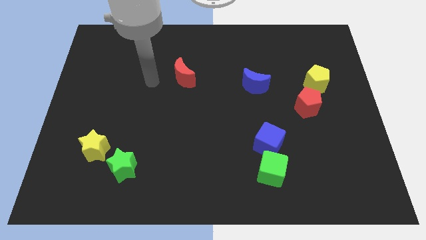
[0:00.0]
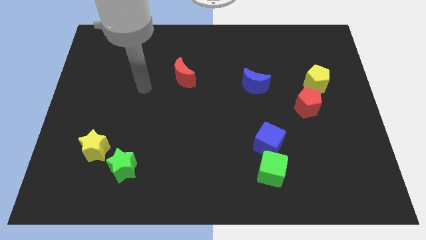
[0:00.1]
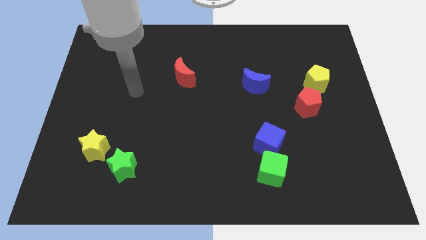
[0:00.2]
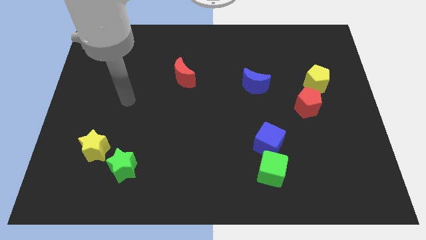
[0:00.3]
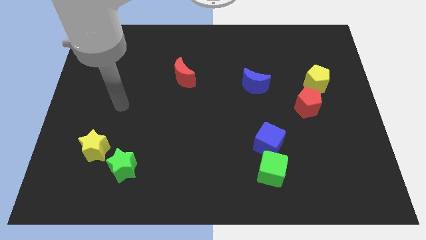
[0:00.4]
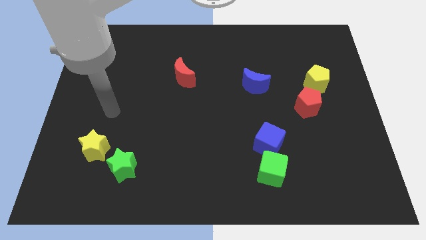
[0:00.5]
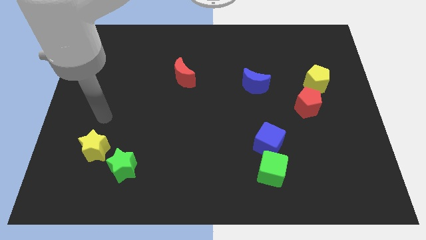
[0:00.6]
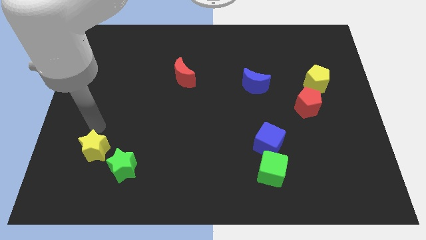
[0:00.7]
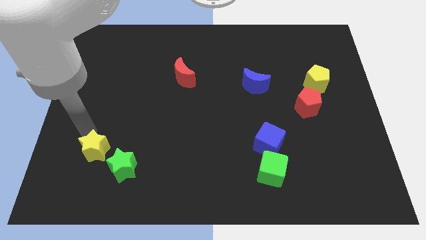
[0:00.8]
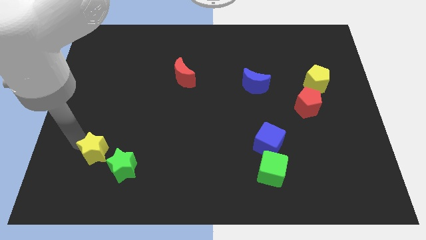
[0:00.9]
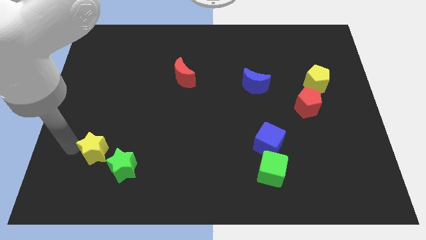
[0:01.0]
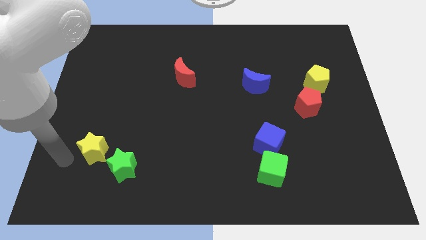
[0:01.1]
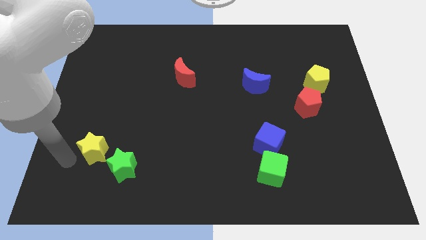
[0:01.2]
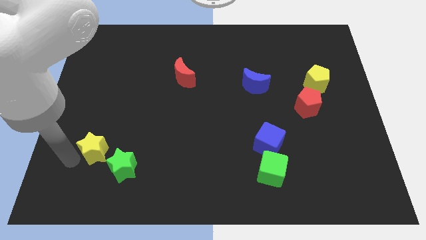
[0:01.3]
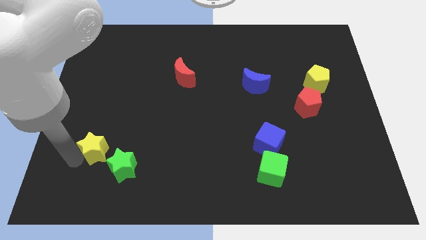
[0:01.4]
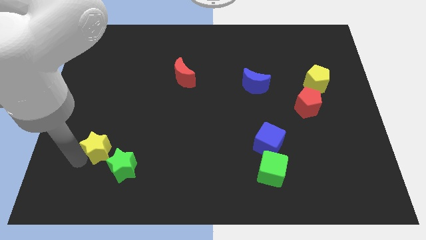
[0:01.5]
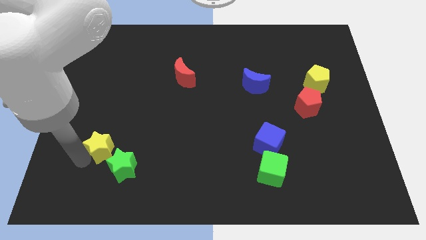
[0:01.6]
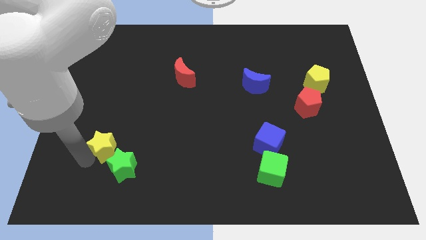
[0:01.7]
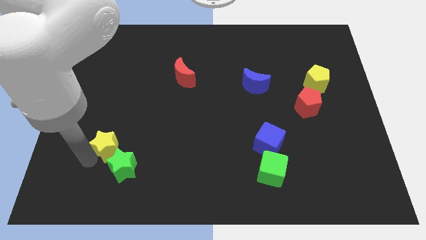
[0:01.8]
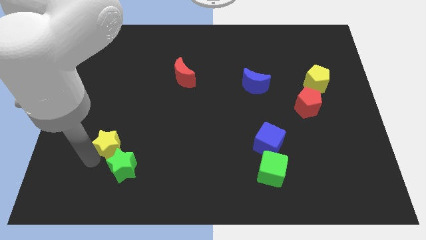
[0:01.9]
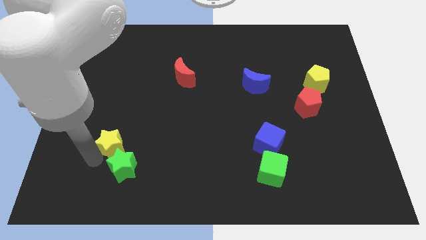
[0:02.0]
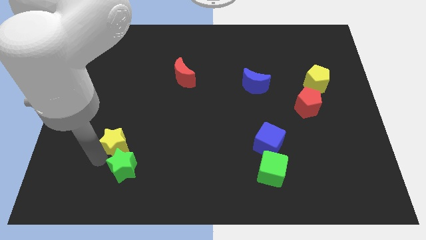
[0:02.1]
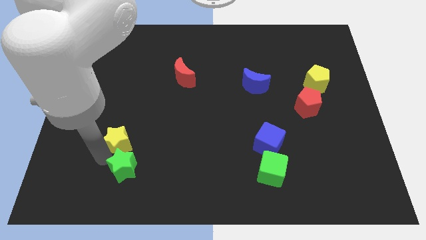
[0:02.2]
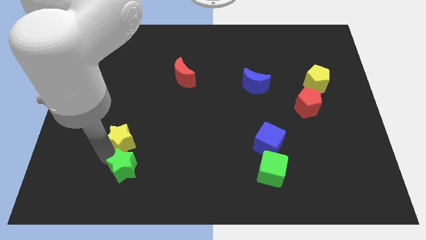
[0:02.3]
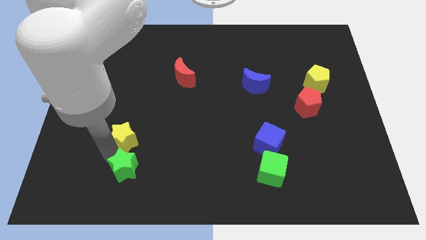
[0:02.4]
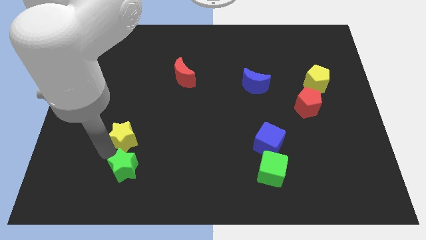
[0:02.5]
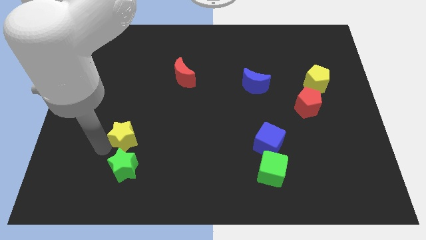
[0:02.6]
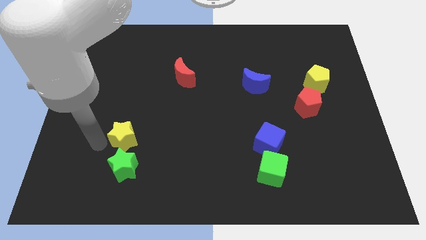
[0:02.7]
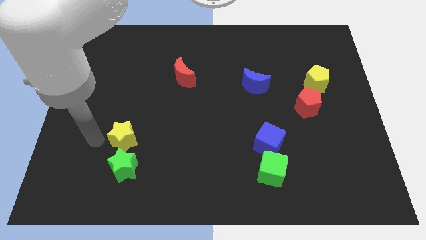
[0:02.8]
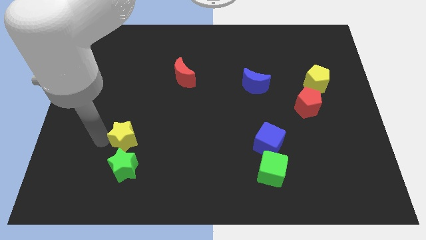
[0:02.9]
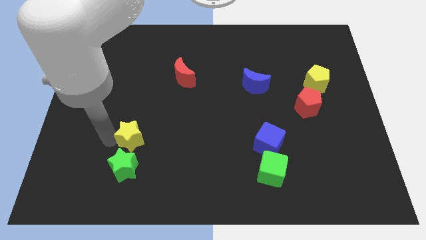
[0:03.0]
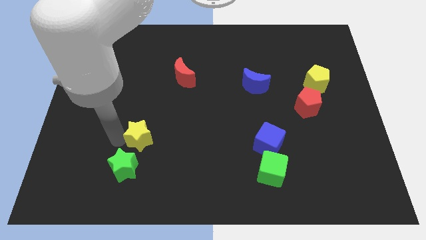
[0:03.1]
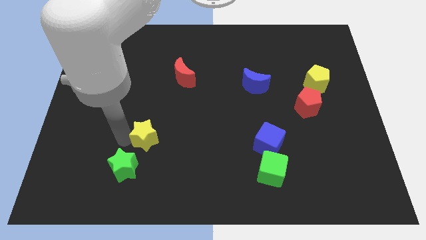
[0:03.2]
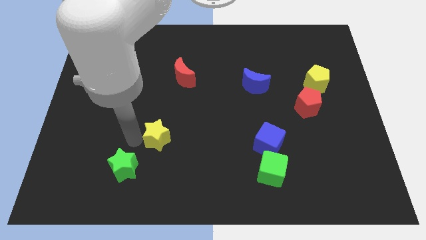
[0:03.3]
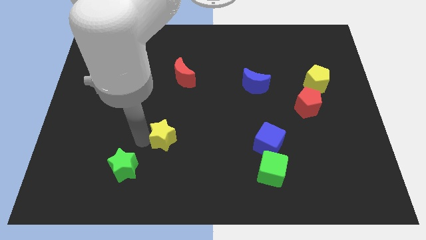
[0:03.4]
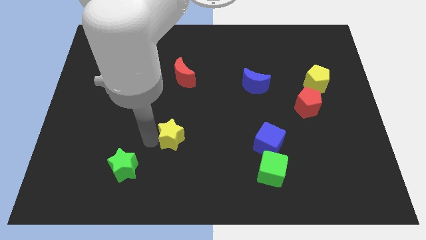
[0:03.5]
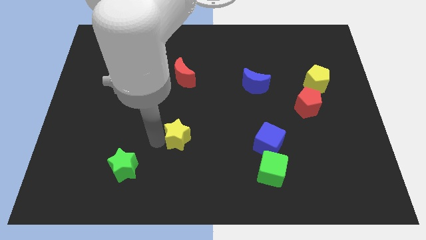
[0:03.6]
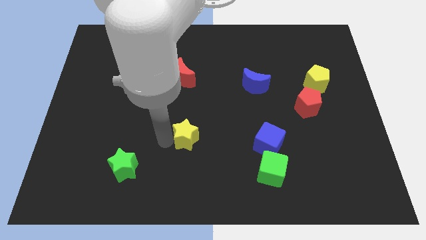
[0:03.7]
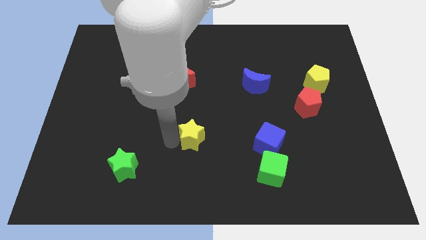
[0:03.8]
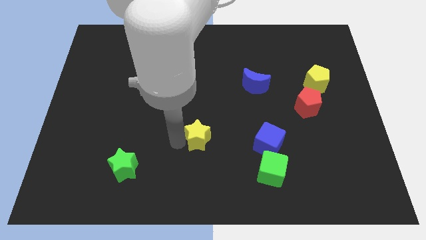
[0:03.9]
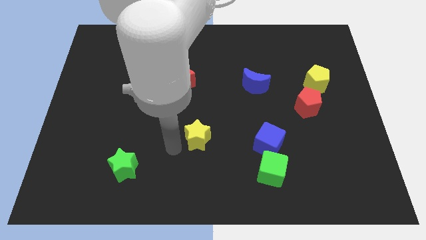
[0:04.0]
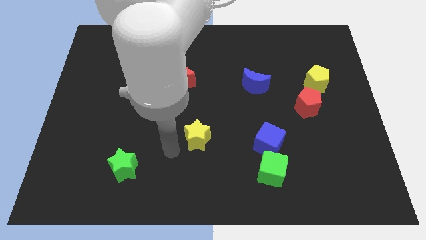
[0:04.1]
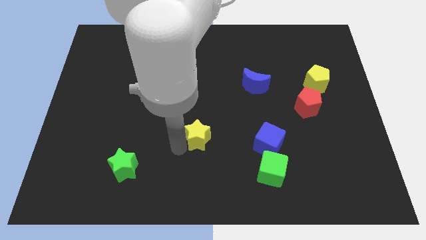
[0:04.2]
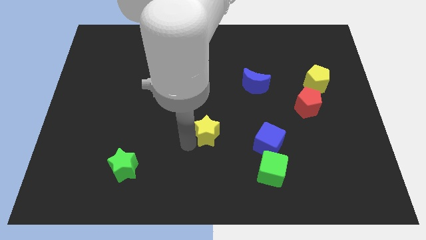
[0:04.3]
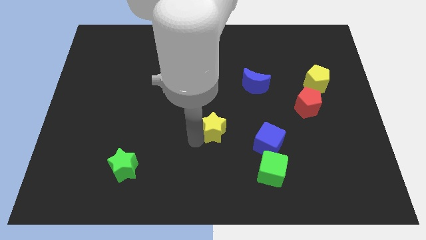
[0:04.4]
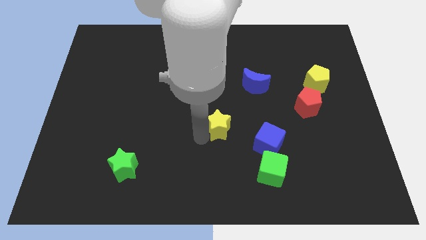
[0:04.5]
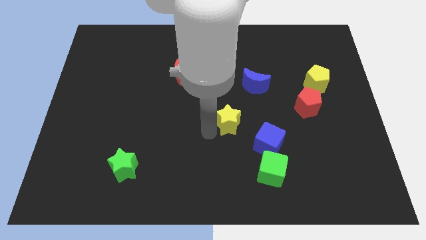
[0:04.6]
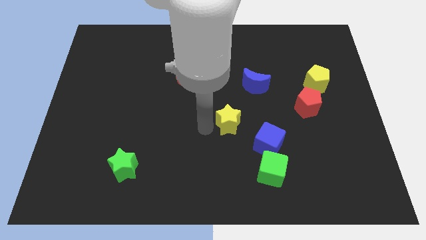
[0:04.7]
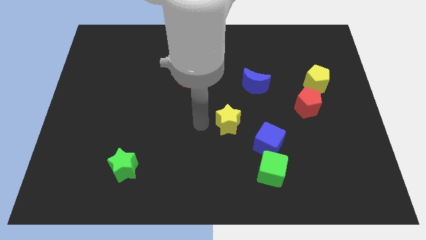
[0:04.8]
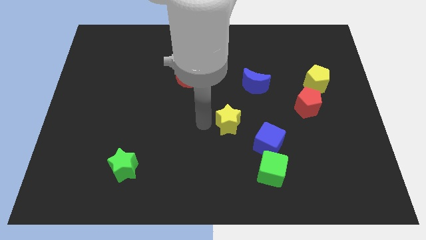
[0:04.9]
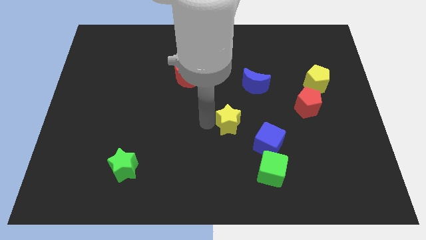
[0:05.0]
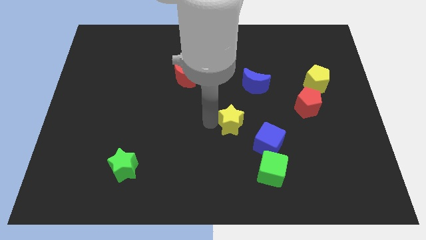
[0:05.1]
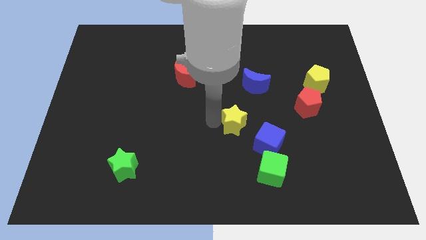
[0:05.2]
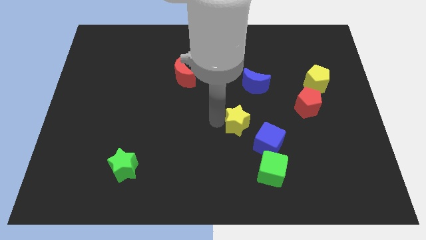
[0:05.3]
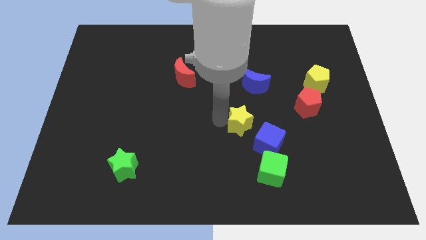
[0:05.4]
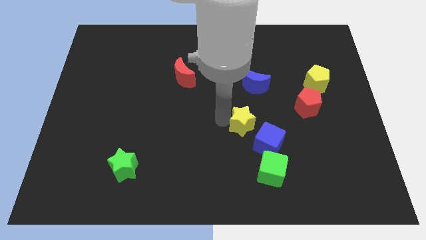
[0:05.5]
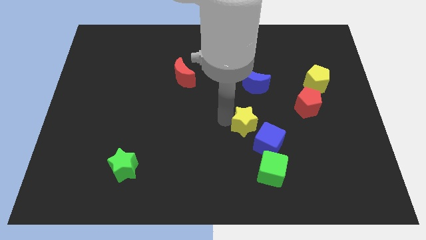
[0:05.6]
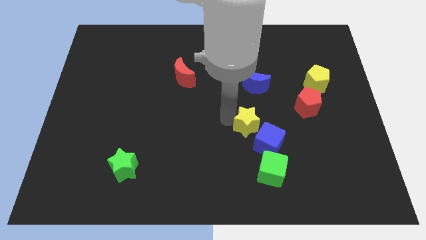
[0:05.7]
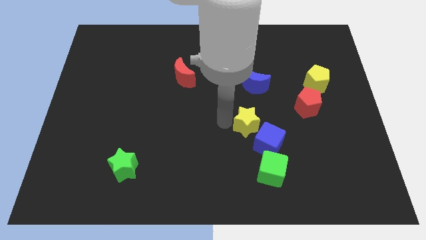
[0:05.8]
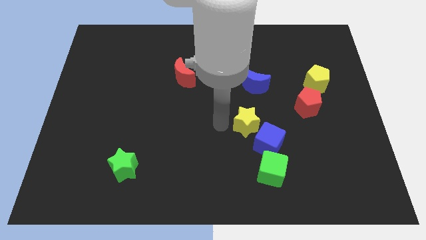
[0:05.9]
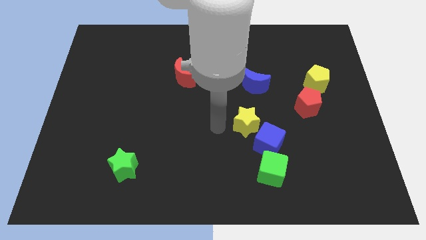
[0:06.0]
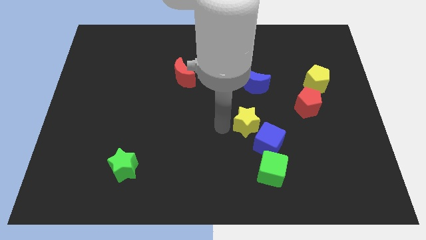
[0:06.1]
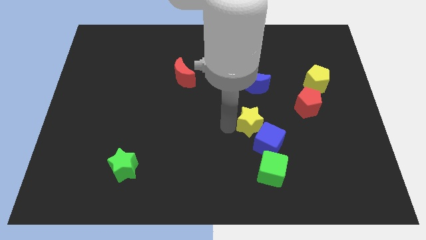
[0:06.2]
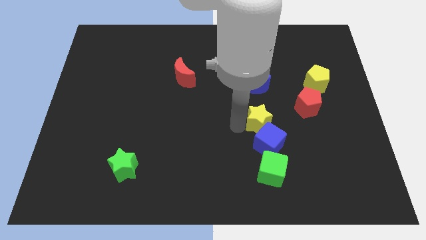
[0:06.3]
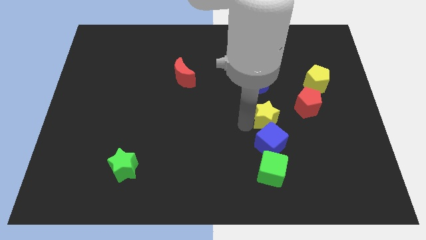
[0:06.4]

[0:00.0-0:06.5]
slide the yellow star to the bottom left side of the red pentagon
